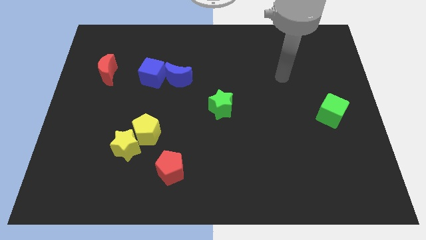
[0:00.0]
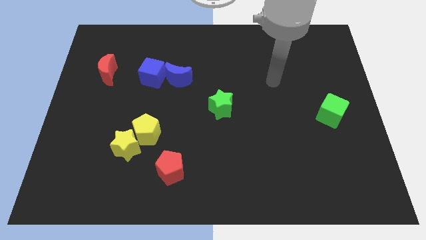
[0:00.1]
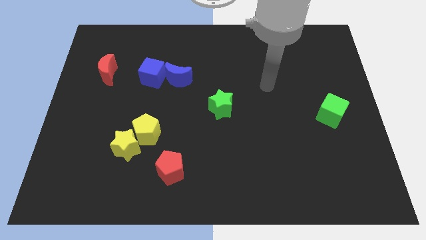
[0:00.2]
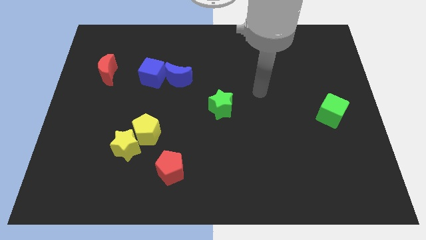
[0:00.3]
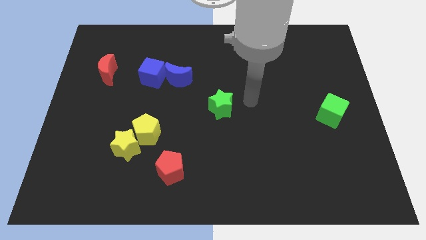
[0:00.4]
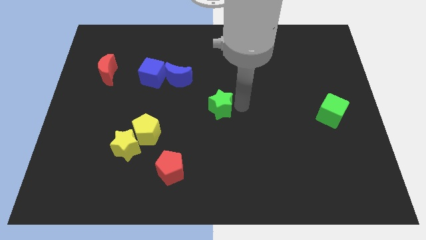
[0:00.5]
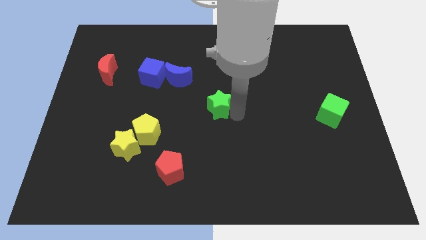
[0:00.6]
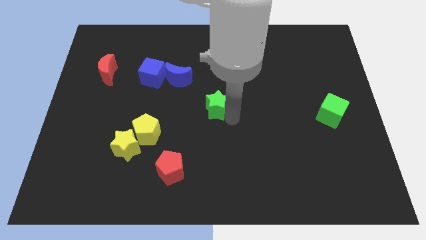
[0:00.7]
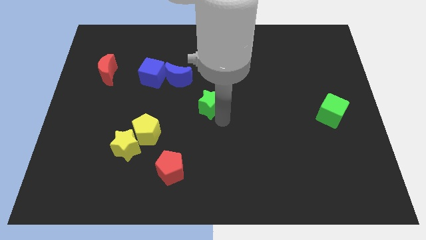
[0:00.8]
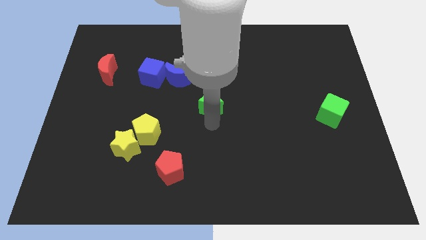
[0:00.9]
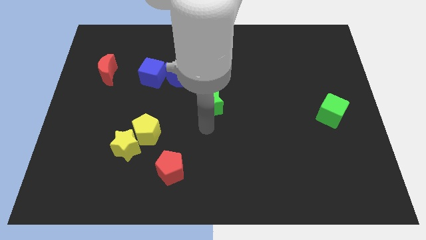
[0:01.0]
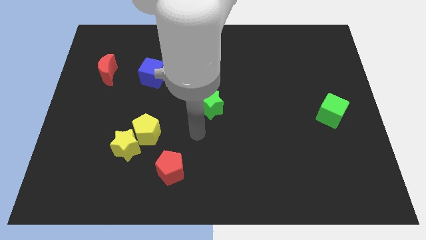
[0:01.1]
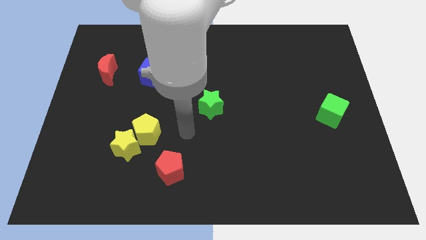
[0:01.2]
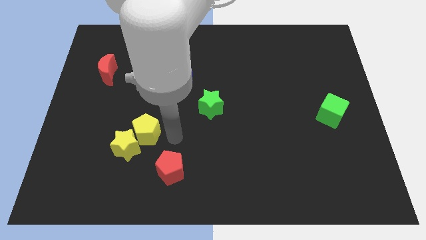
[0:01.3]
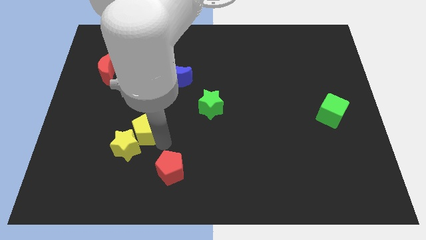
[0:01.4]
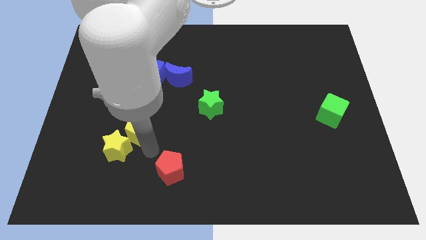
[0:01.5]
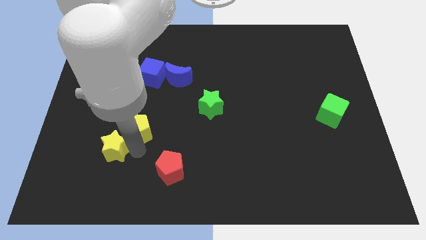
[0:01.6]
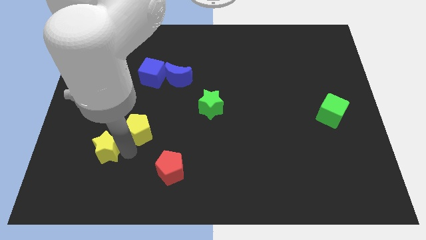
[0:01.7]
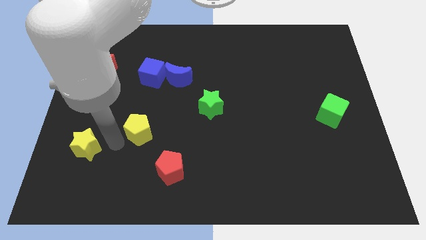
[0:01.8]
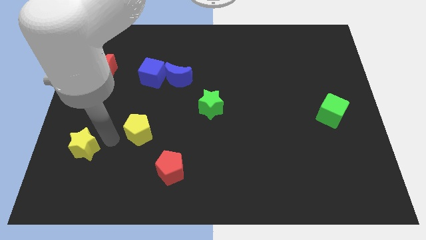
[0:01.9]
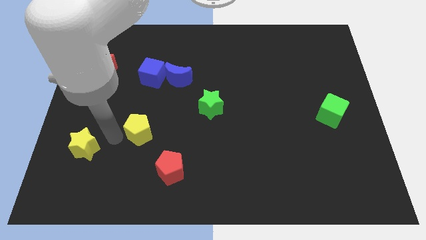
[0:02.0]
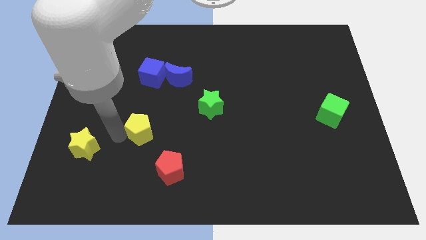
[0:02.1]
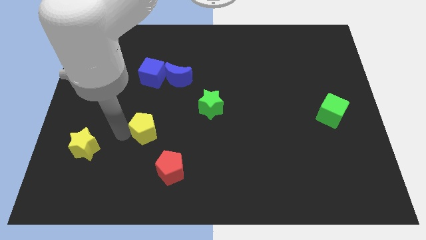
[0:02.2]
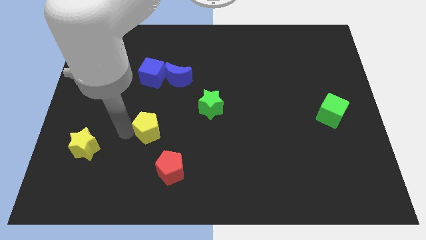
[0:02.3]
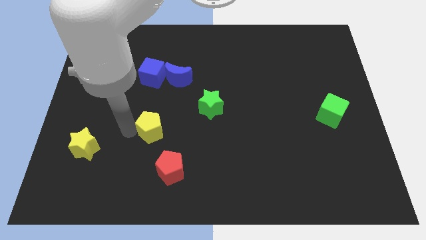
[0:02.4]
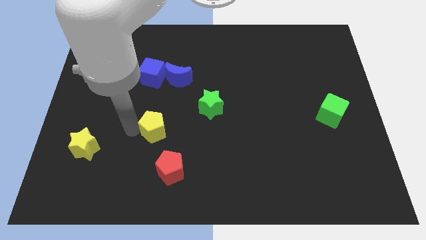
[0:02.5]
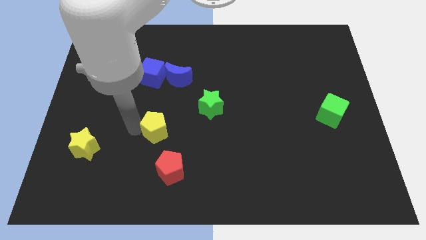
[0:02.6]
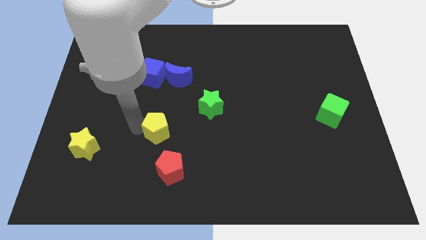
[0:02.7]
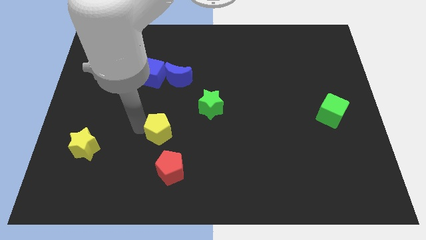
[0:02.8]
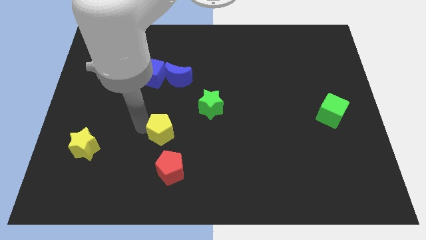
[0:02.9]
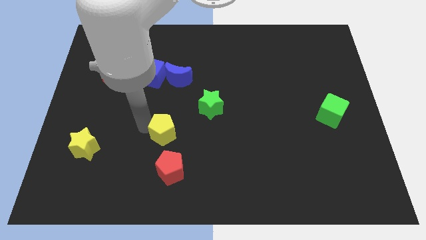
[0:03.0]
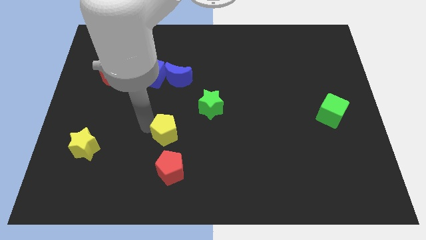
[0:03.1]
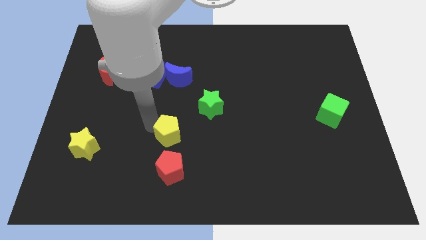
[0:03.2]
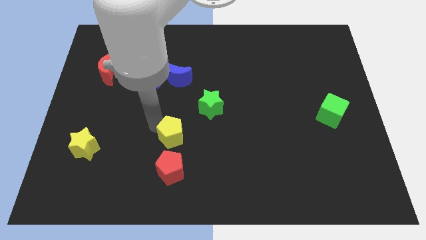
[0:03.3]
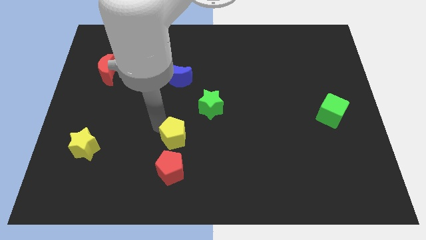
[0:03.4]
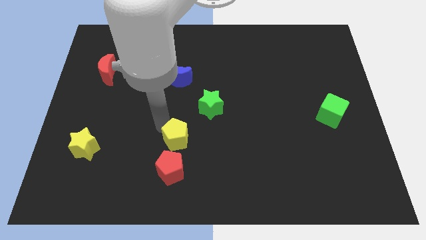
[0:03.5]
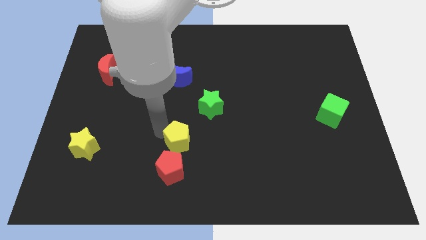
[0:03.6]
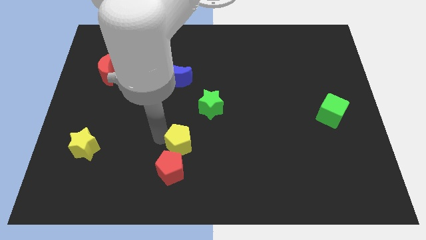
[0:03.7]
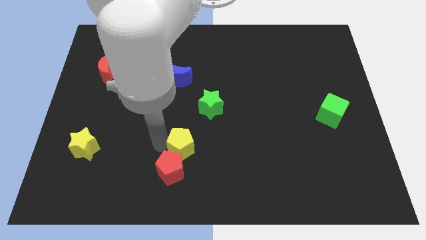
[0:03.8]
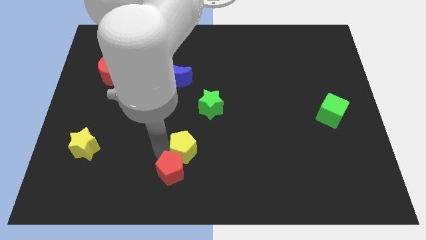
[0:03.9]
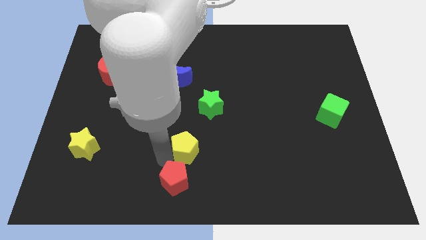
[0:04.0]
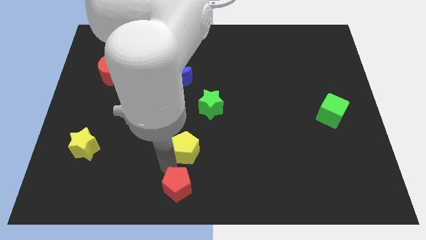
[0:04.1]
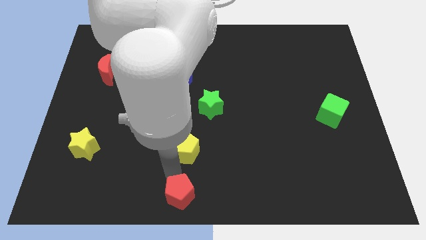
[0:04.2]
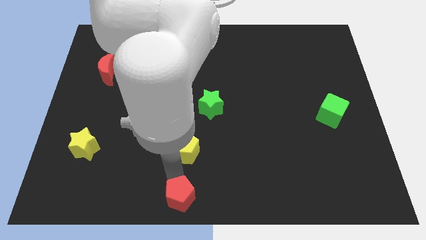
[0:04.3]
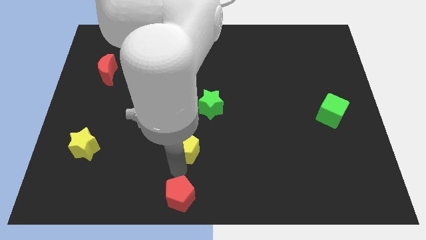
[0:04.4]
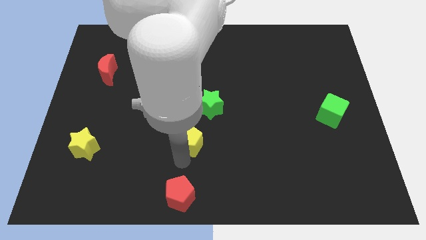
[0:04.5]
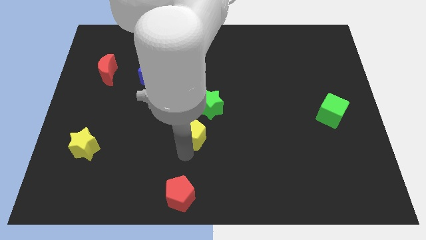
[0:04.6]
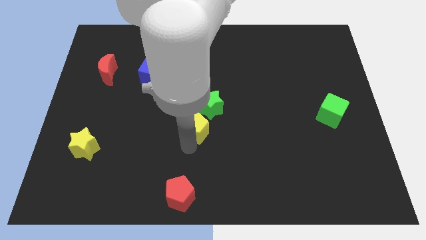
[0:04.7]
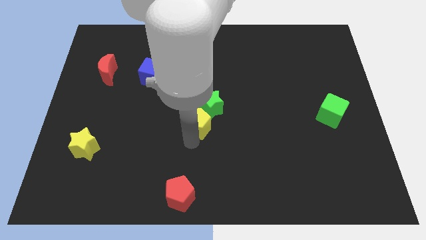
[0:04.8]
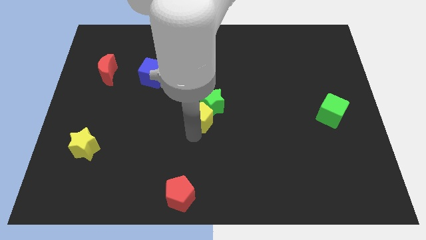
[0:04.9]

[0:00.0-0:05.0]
put the yellow pentagon towards the green star

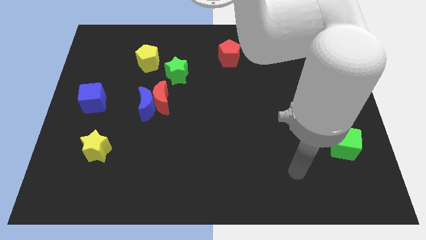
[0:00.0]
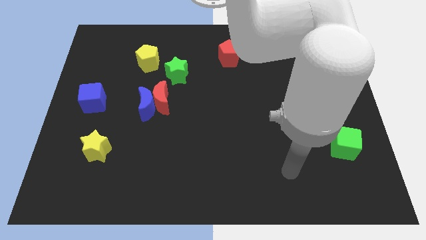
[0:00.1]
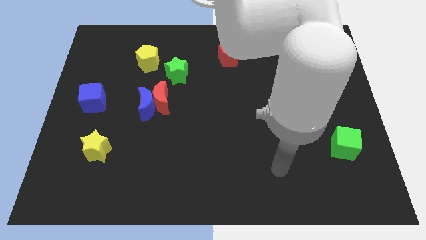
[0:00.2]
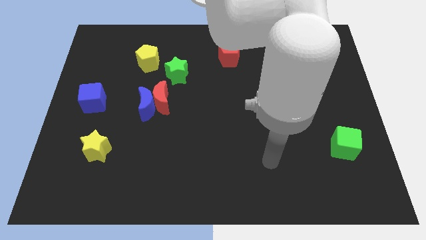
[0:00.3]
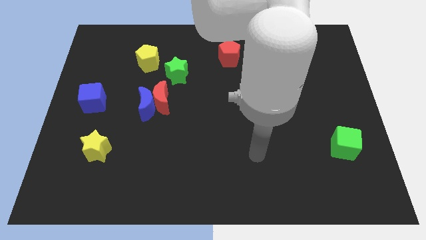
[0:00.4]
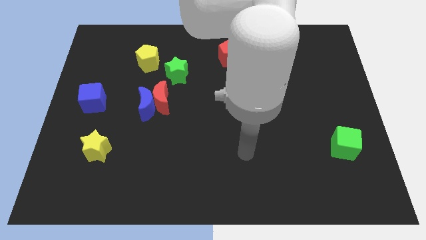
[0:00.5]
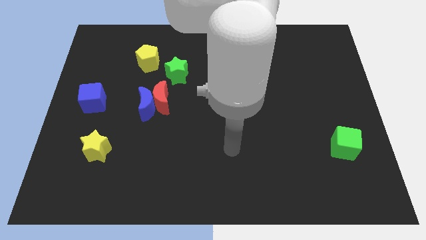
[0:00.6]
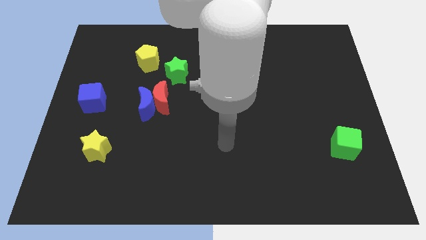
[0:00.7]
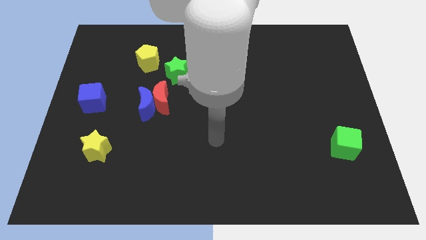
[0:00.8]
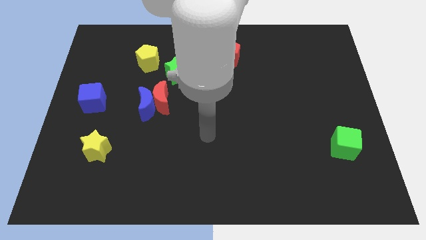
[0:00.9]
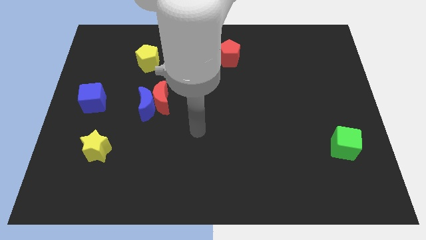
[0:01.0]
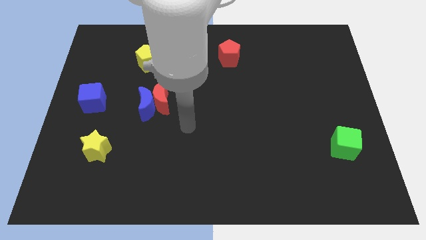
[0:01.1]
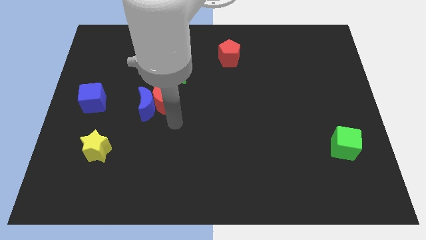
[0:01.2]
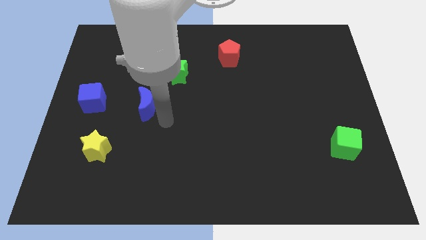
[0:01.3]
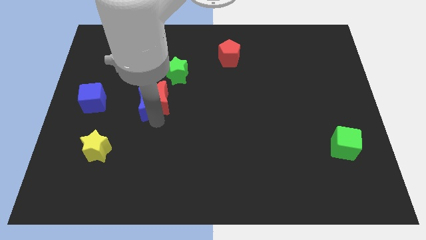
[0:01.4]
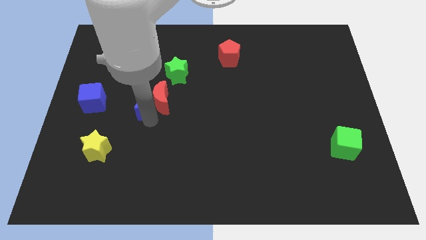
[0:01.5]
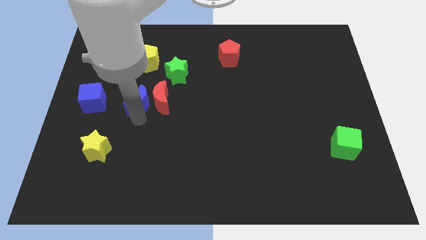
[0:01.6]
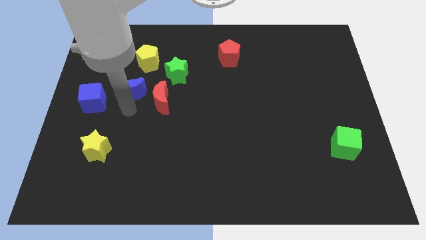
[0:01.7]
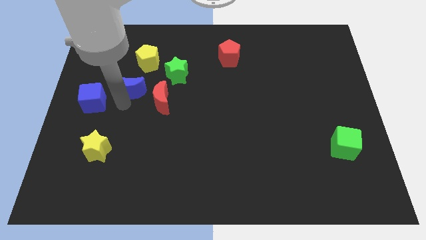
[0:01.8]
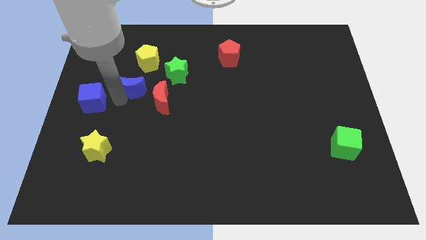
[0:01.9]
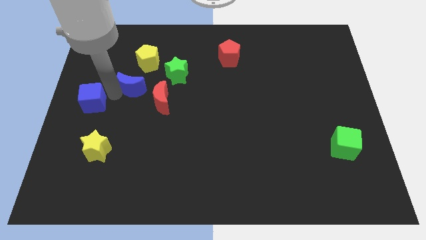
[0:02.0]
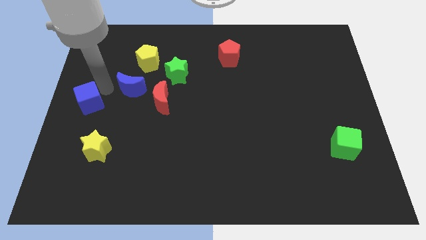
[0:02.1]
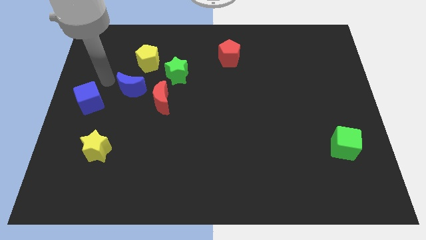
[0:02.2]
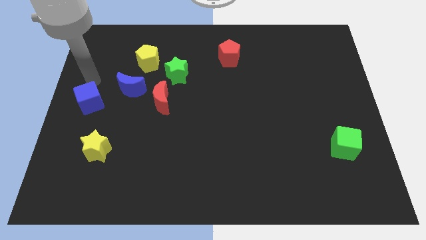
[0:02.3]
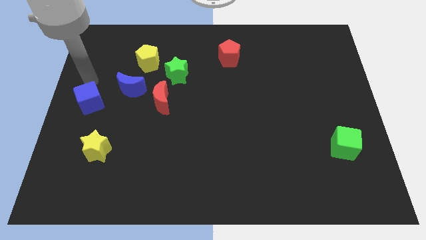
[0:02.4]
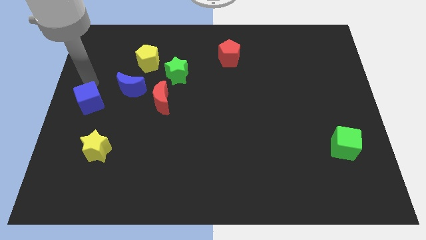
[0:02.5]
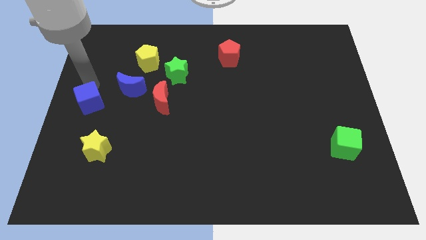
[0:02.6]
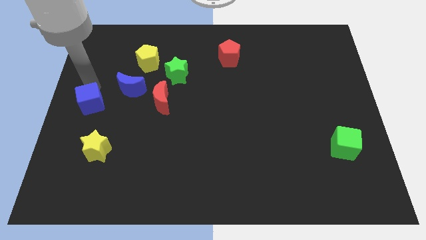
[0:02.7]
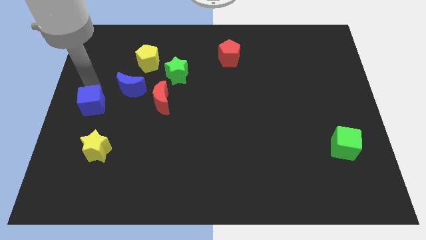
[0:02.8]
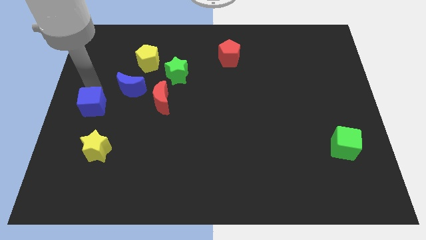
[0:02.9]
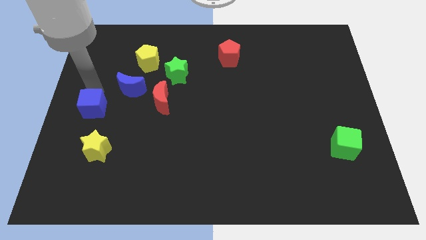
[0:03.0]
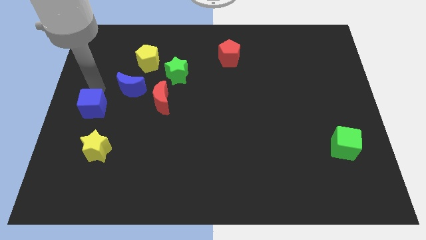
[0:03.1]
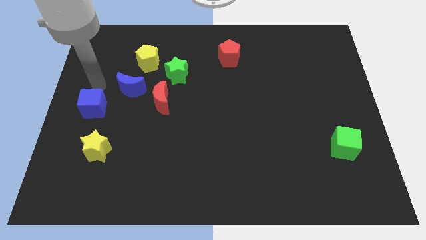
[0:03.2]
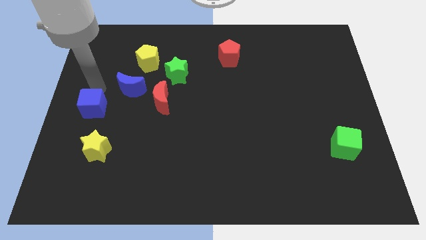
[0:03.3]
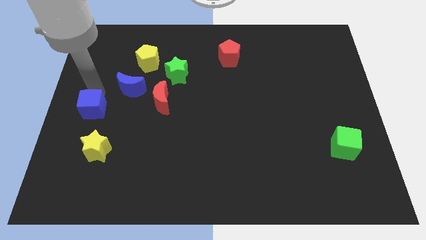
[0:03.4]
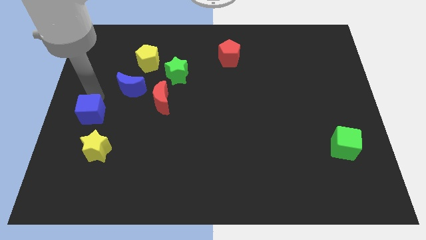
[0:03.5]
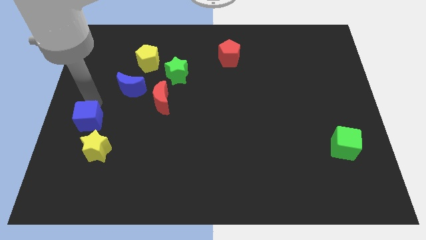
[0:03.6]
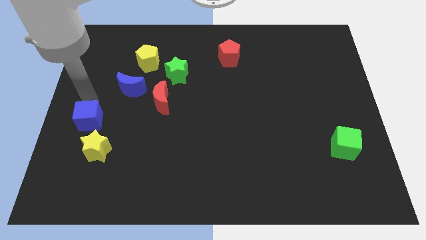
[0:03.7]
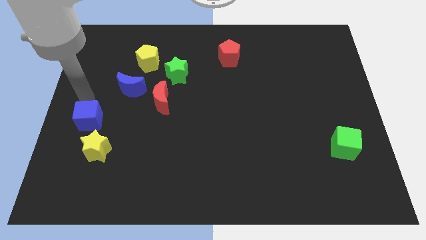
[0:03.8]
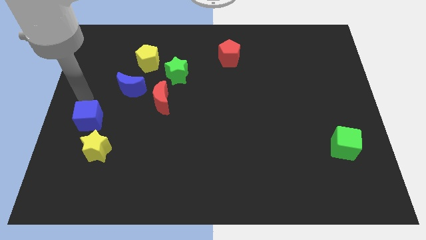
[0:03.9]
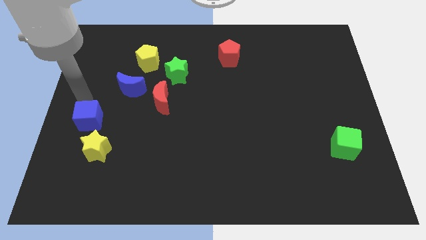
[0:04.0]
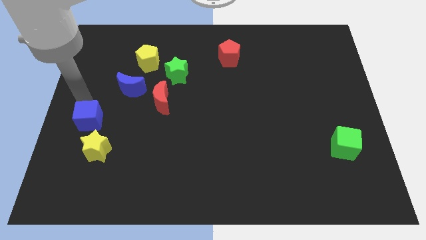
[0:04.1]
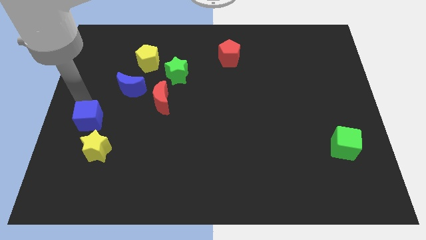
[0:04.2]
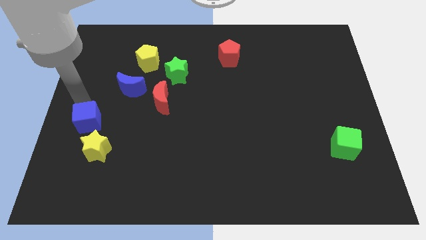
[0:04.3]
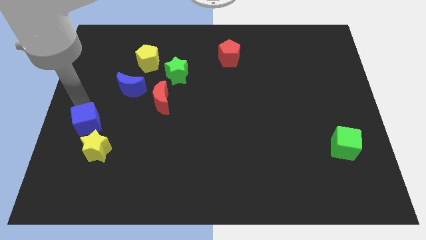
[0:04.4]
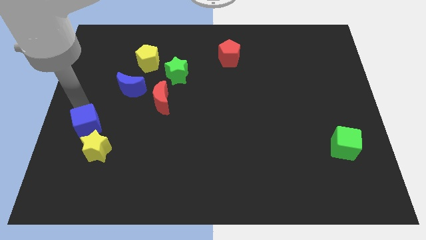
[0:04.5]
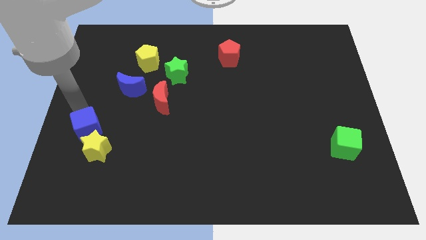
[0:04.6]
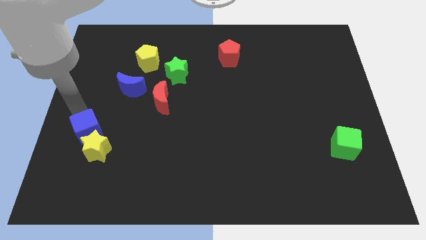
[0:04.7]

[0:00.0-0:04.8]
move the blue cube towards the yellow star
